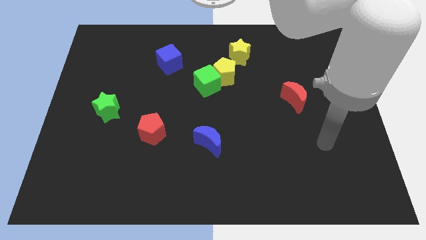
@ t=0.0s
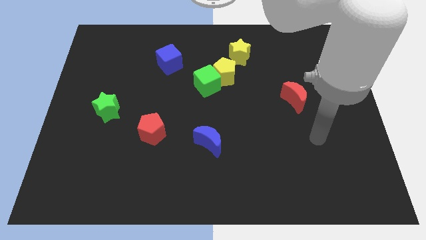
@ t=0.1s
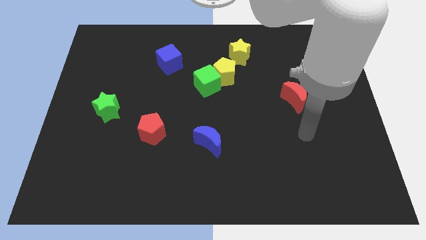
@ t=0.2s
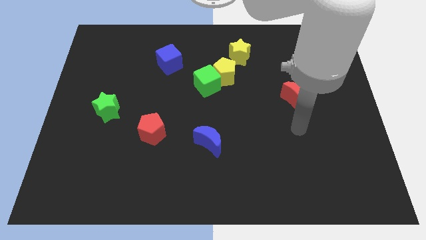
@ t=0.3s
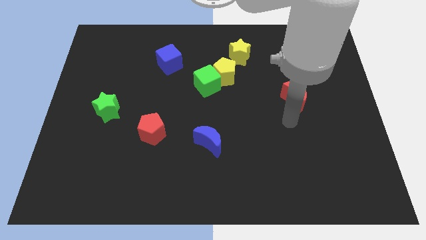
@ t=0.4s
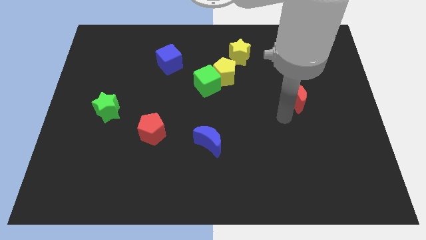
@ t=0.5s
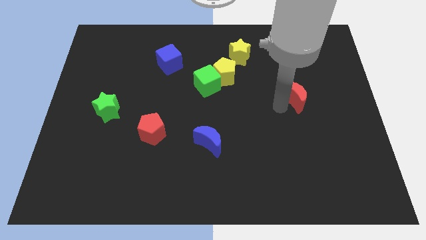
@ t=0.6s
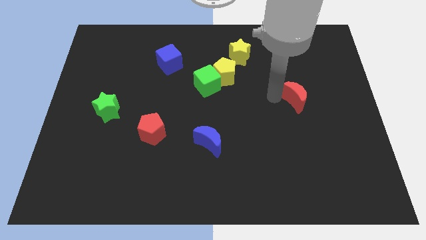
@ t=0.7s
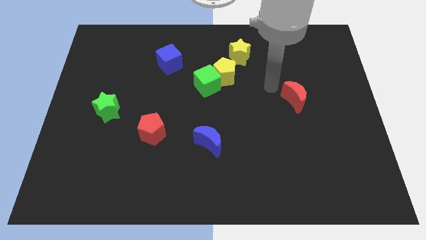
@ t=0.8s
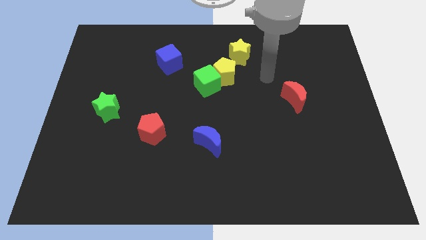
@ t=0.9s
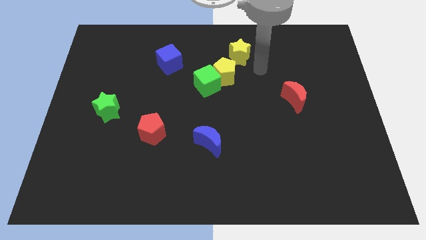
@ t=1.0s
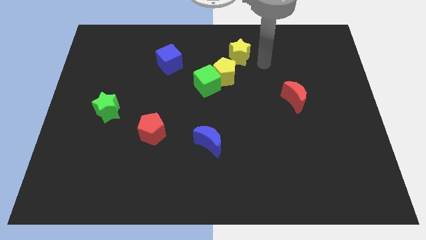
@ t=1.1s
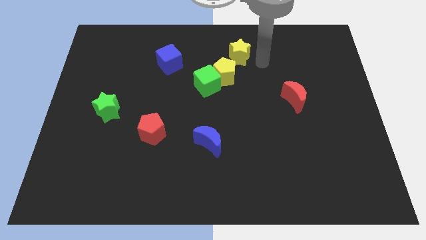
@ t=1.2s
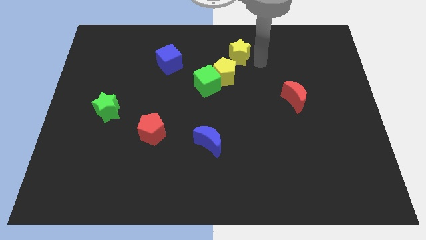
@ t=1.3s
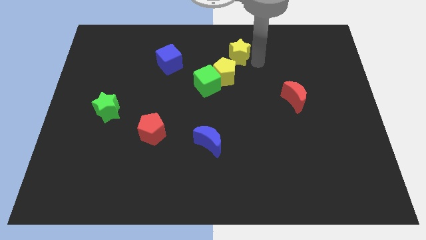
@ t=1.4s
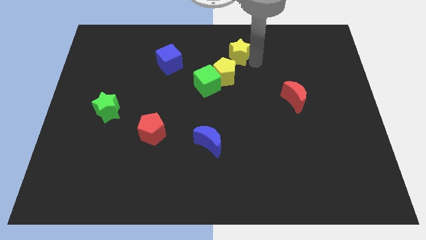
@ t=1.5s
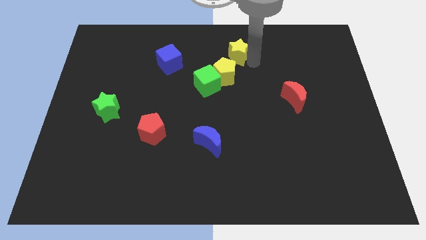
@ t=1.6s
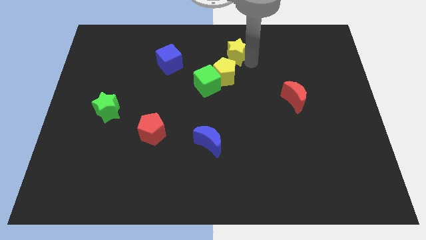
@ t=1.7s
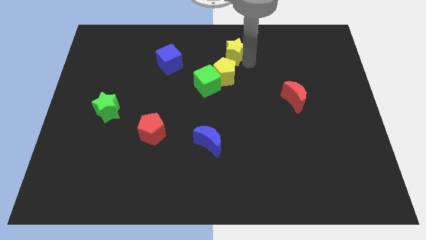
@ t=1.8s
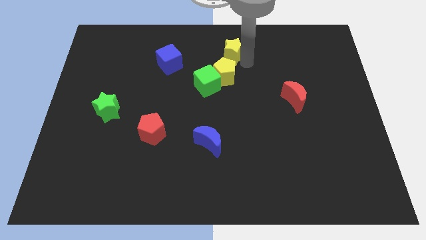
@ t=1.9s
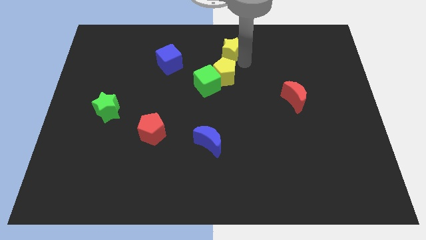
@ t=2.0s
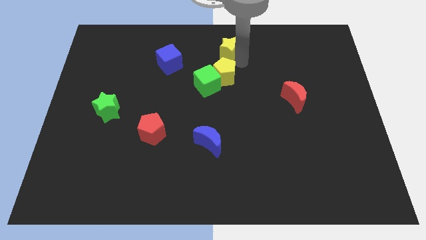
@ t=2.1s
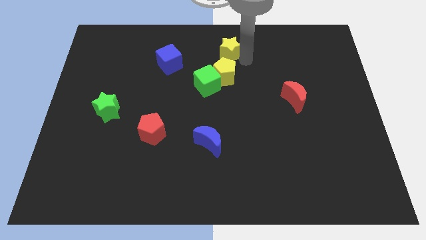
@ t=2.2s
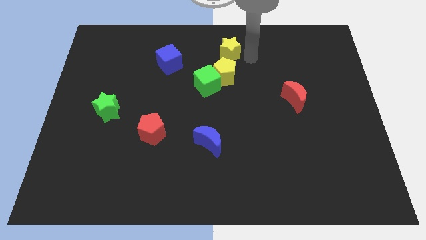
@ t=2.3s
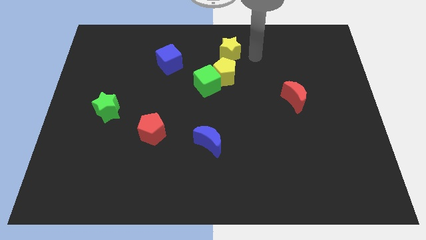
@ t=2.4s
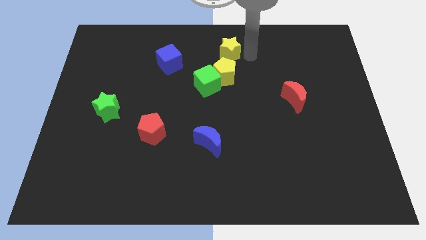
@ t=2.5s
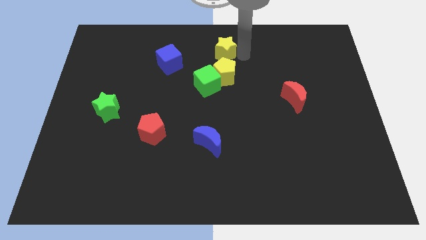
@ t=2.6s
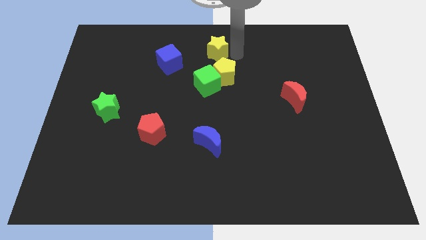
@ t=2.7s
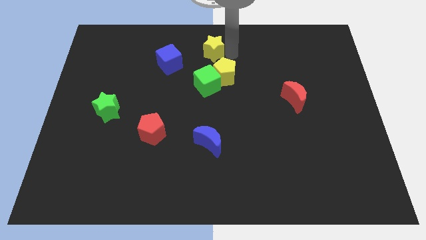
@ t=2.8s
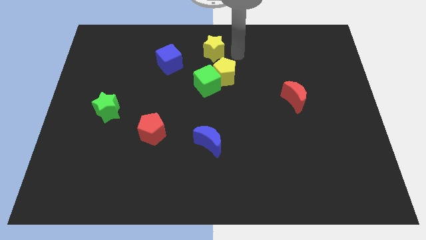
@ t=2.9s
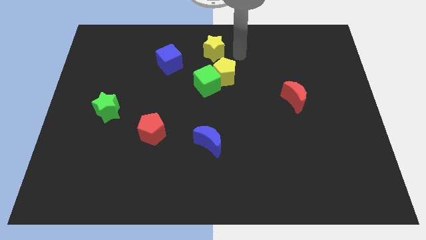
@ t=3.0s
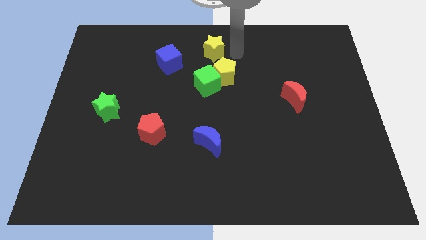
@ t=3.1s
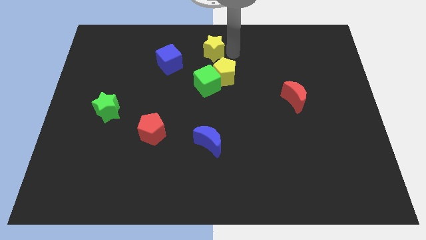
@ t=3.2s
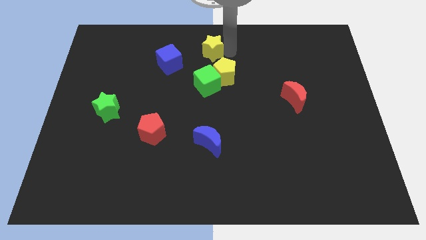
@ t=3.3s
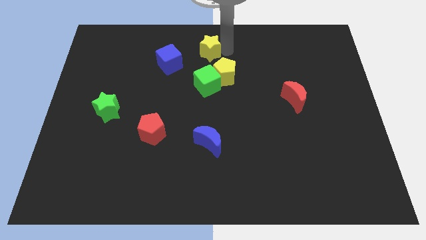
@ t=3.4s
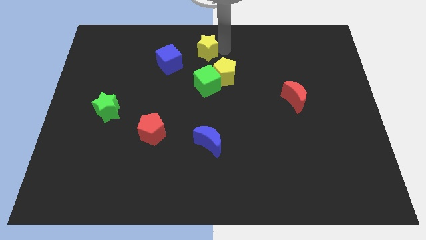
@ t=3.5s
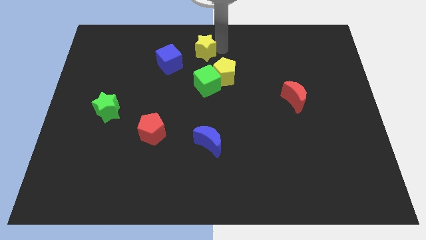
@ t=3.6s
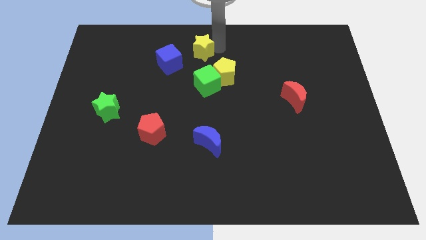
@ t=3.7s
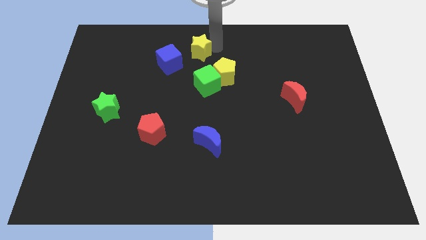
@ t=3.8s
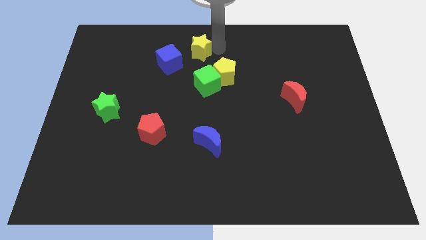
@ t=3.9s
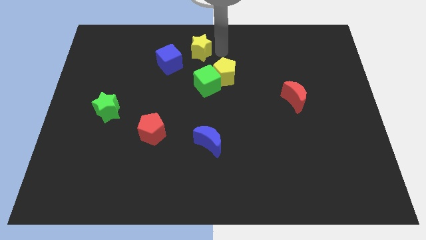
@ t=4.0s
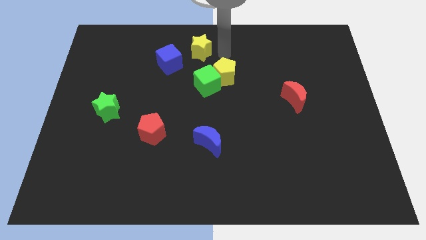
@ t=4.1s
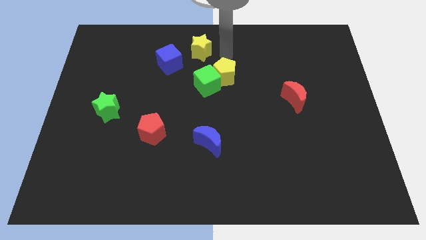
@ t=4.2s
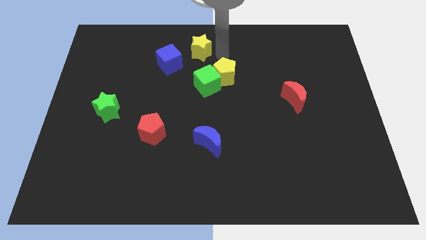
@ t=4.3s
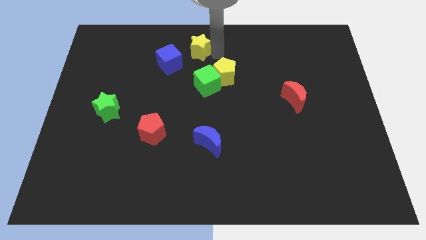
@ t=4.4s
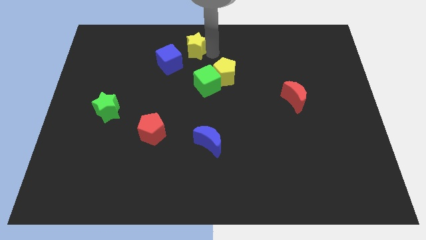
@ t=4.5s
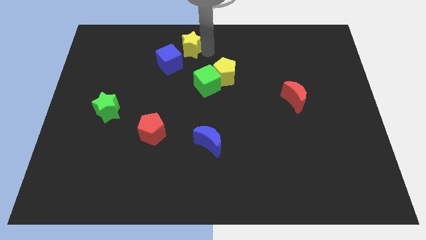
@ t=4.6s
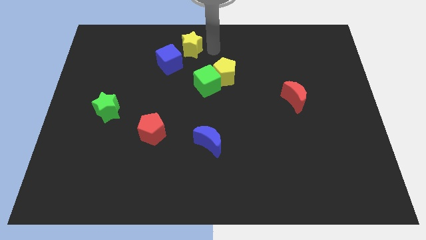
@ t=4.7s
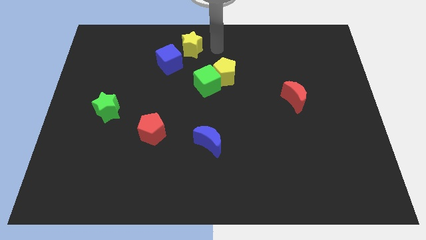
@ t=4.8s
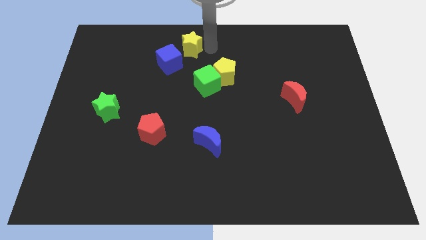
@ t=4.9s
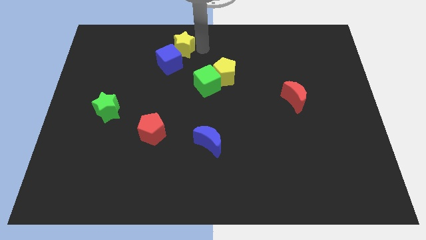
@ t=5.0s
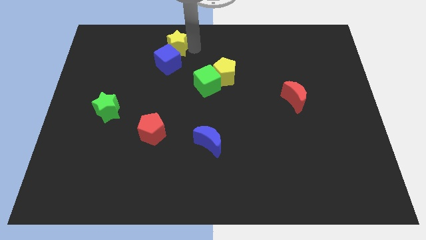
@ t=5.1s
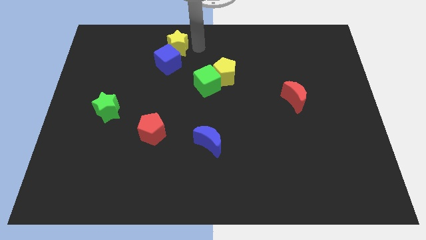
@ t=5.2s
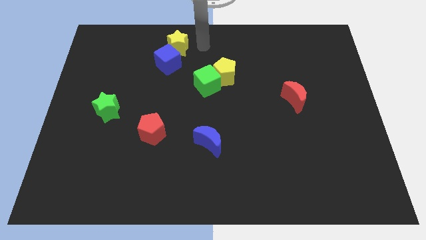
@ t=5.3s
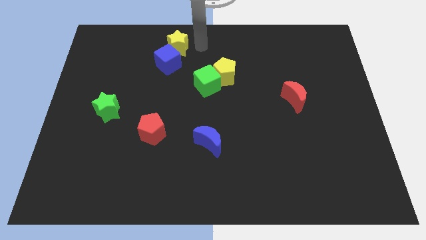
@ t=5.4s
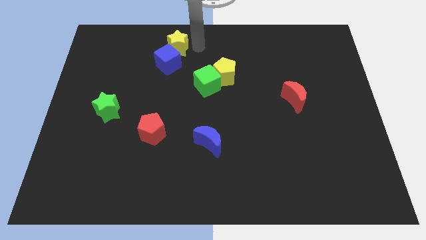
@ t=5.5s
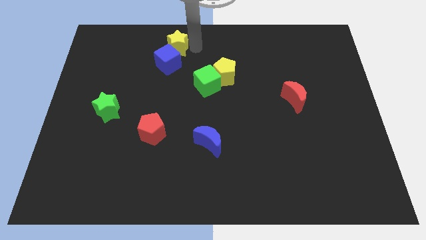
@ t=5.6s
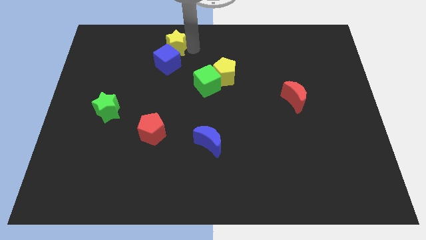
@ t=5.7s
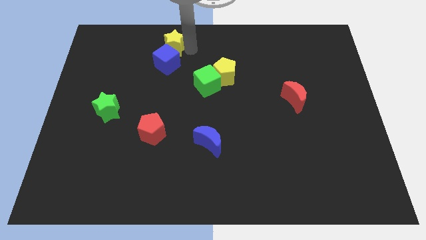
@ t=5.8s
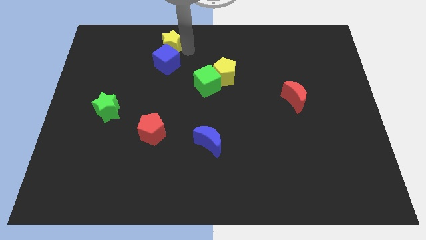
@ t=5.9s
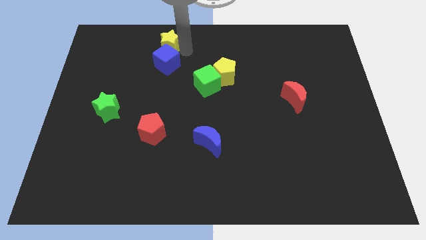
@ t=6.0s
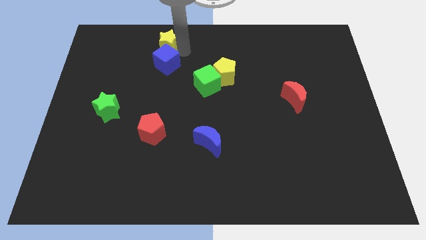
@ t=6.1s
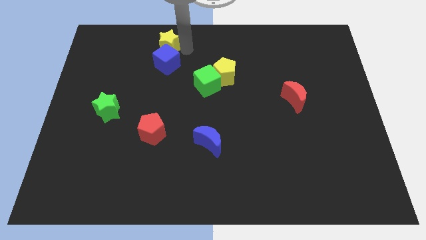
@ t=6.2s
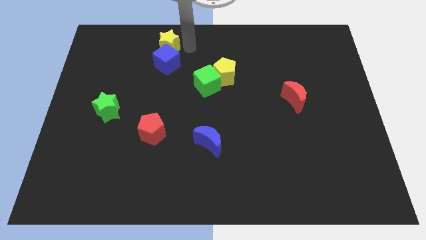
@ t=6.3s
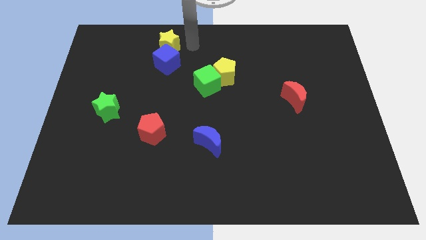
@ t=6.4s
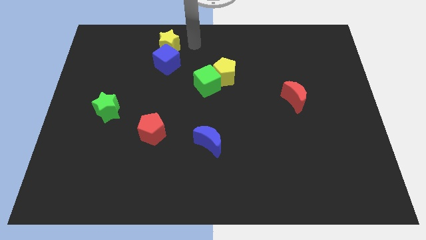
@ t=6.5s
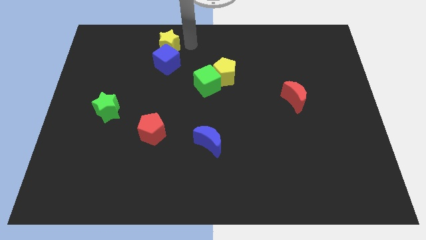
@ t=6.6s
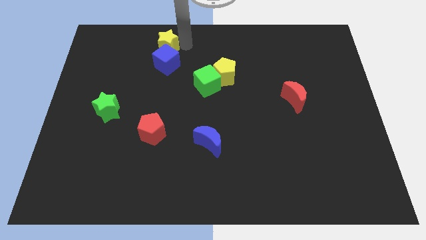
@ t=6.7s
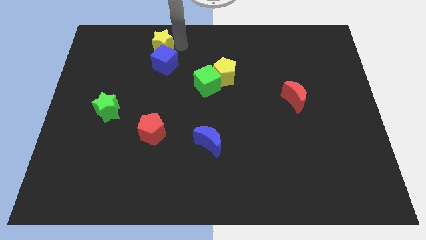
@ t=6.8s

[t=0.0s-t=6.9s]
push the yellow star left

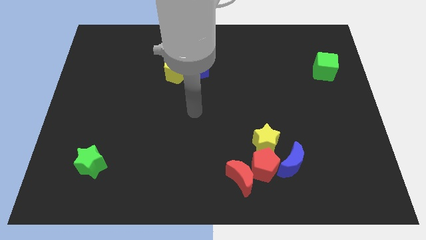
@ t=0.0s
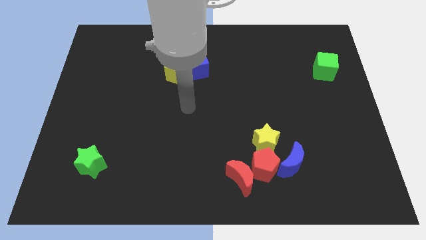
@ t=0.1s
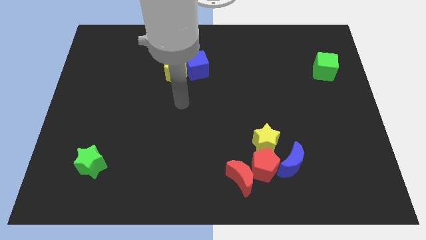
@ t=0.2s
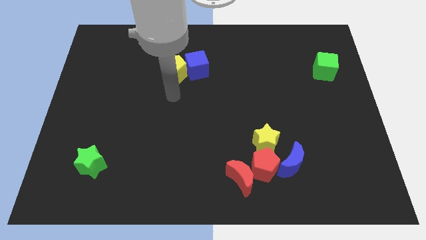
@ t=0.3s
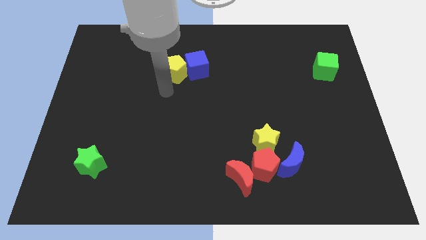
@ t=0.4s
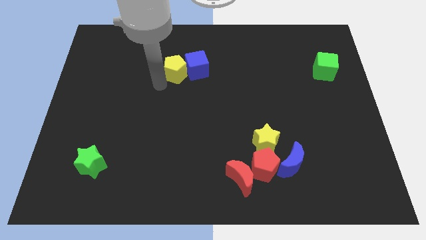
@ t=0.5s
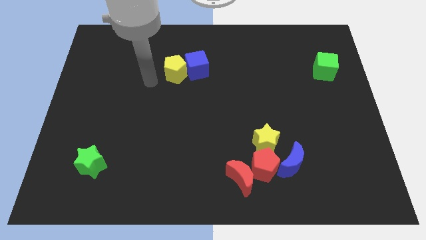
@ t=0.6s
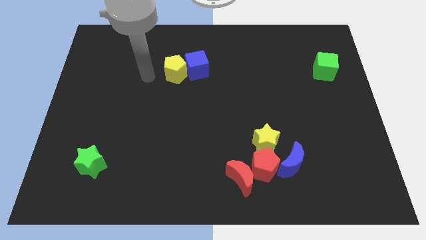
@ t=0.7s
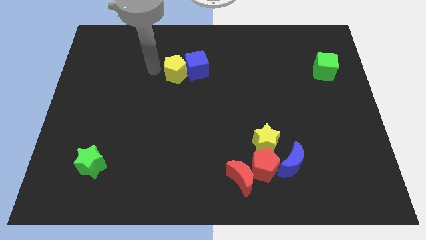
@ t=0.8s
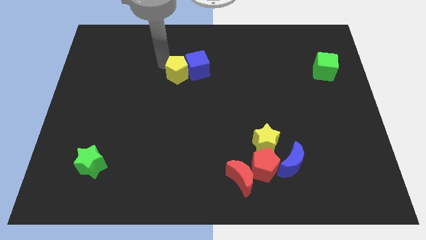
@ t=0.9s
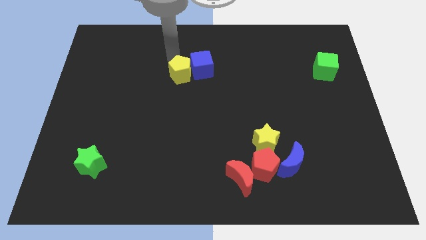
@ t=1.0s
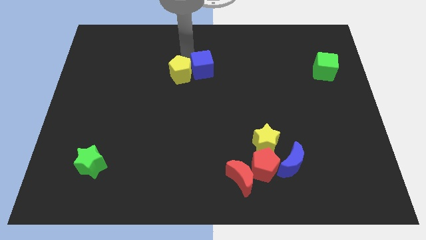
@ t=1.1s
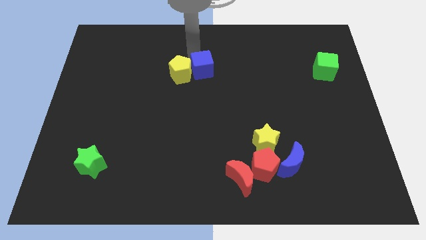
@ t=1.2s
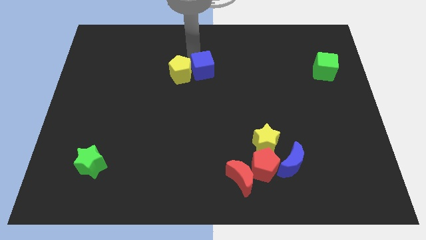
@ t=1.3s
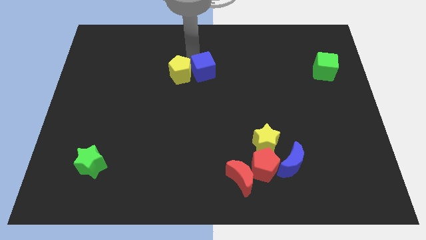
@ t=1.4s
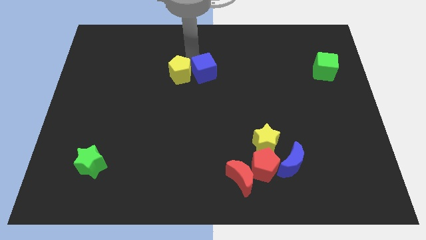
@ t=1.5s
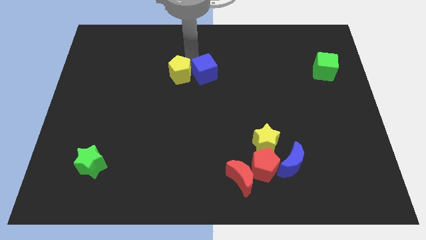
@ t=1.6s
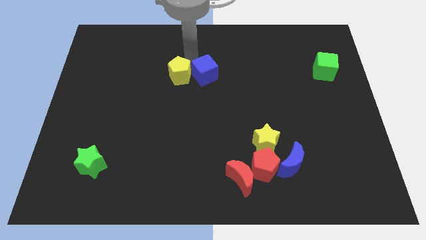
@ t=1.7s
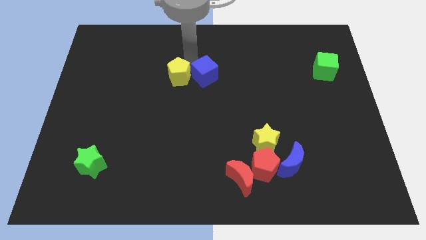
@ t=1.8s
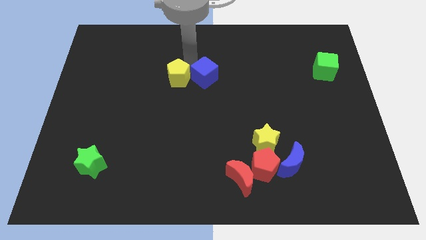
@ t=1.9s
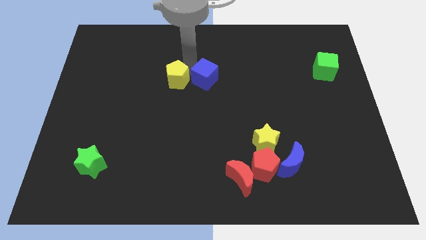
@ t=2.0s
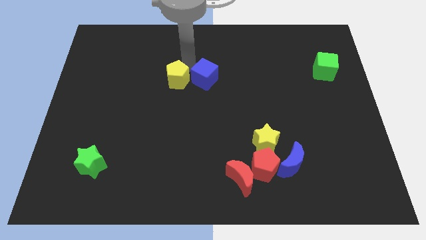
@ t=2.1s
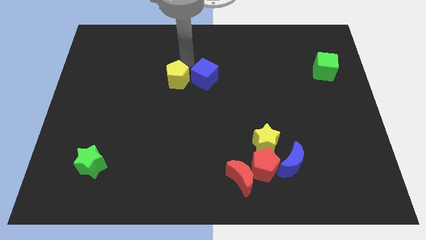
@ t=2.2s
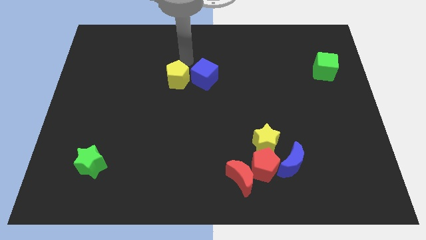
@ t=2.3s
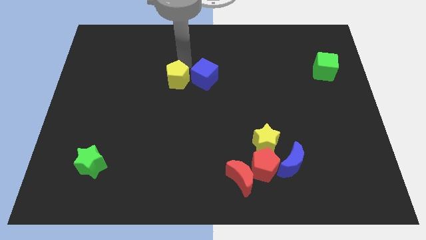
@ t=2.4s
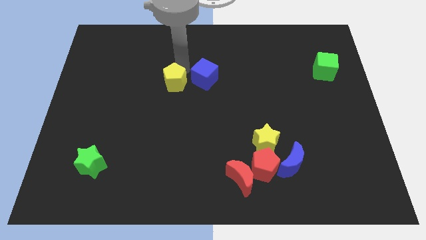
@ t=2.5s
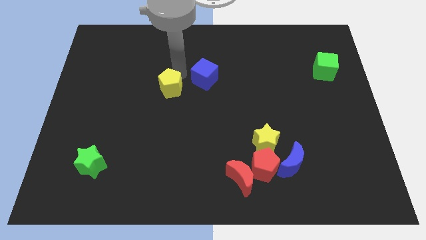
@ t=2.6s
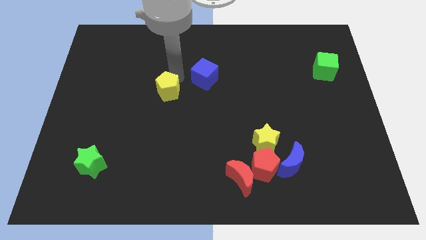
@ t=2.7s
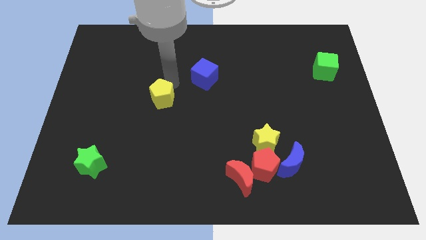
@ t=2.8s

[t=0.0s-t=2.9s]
slightly push the yellow pentagon downwards
